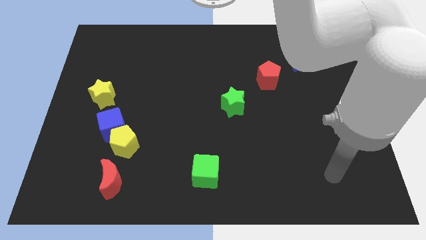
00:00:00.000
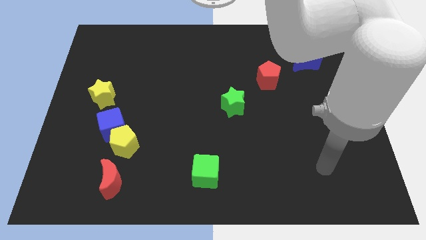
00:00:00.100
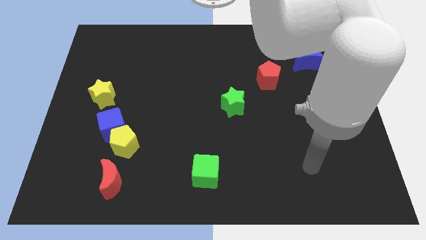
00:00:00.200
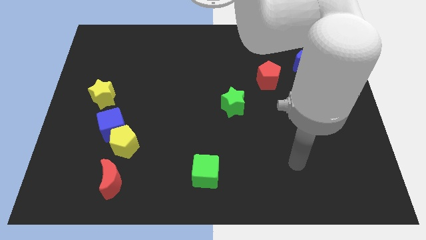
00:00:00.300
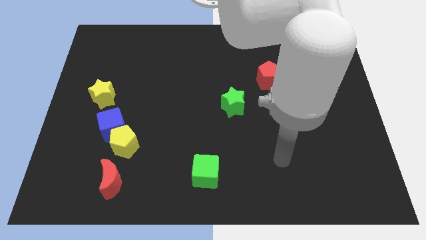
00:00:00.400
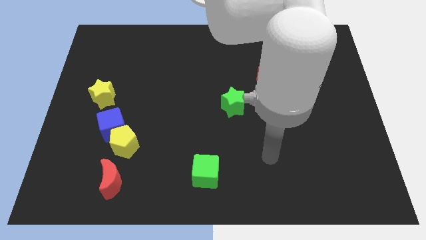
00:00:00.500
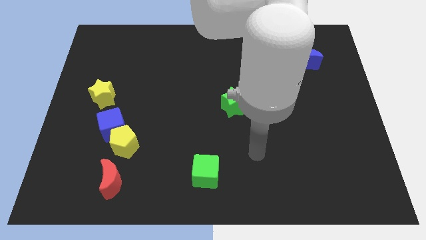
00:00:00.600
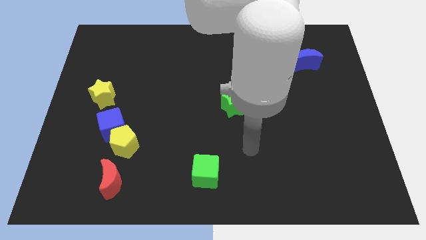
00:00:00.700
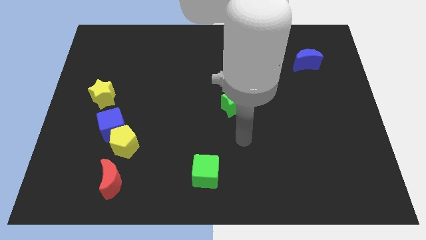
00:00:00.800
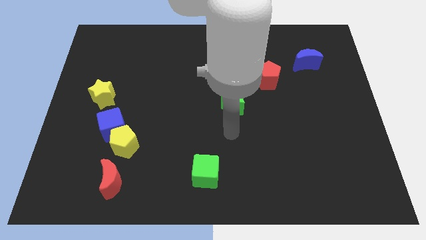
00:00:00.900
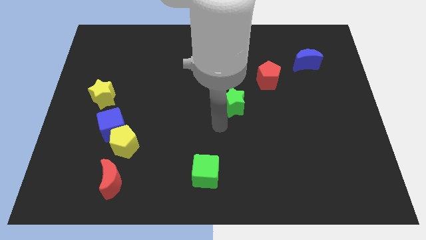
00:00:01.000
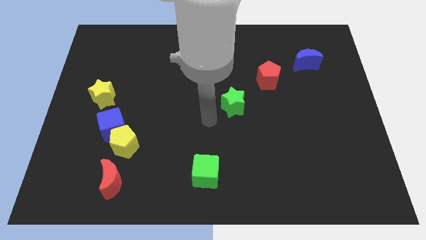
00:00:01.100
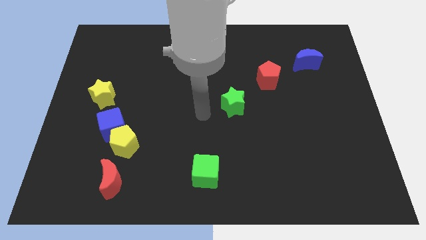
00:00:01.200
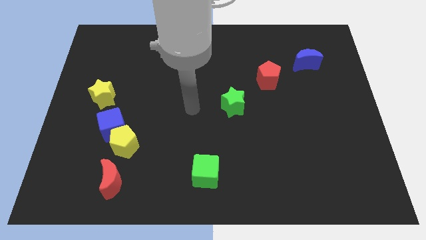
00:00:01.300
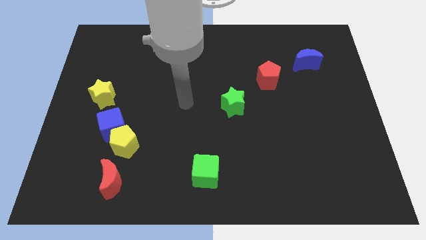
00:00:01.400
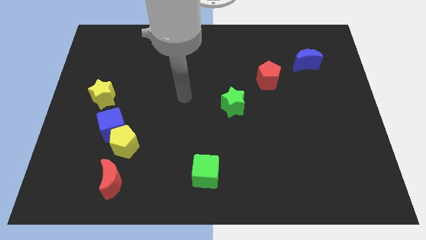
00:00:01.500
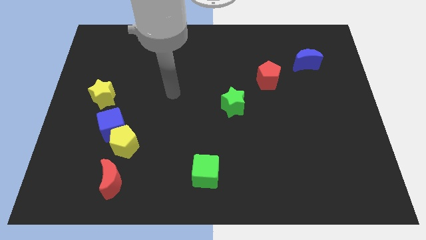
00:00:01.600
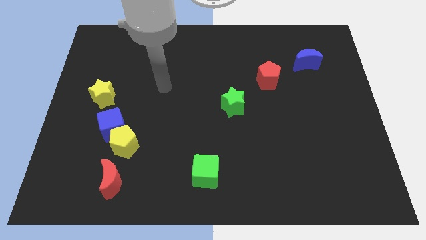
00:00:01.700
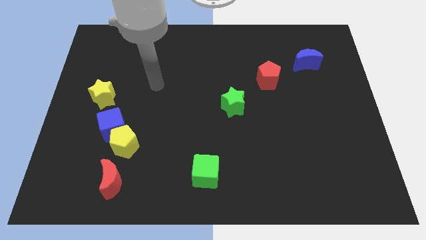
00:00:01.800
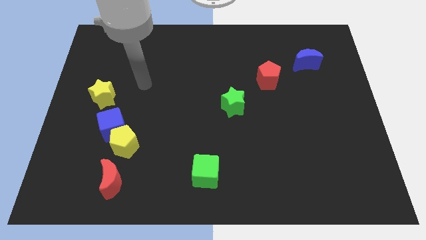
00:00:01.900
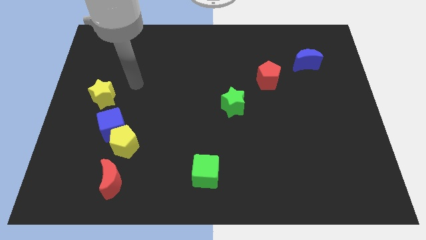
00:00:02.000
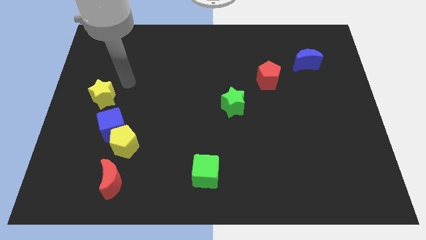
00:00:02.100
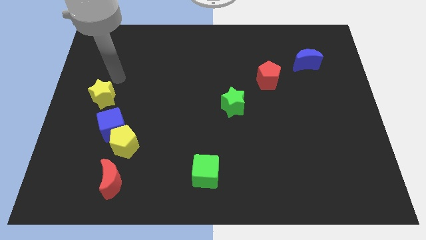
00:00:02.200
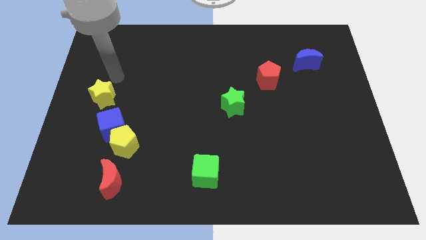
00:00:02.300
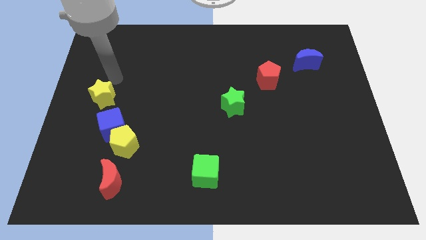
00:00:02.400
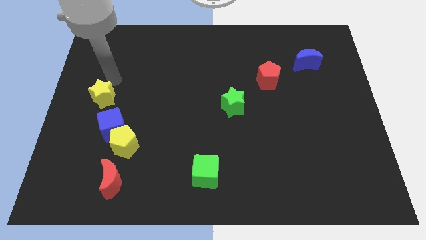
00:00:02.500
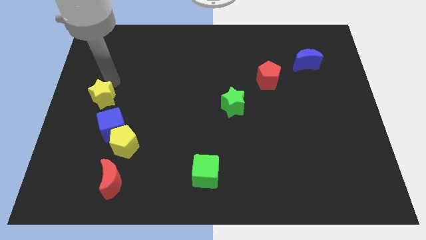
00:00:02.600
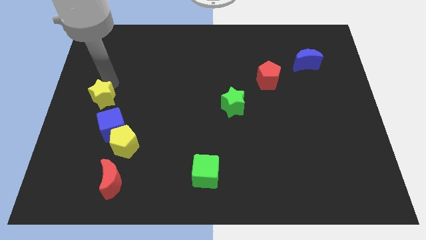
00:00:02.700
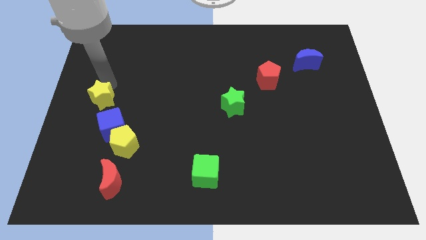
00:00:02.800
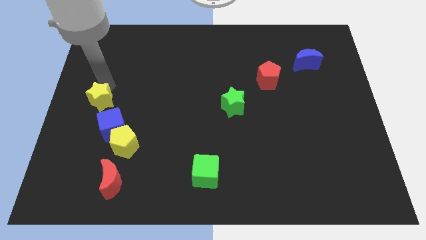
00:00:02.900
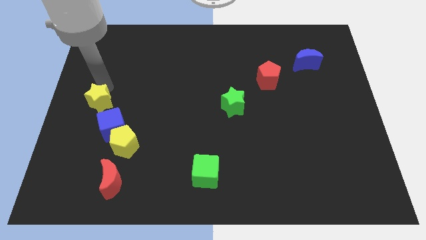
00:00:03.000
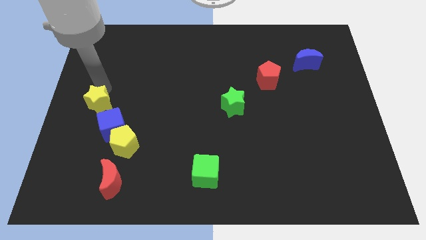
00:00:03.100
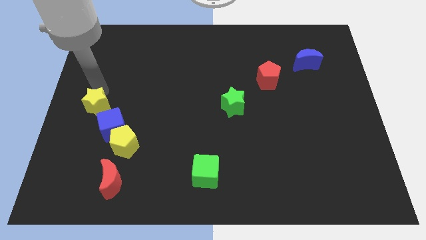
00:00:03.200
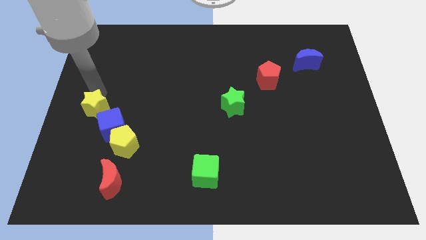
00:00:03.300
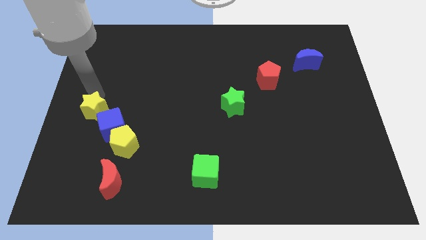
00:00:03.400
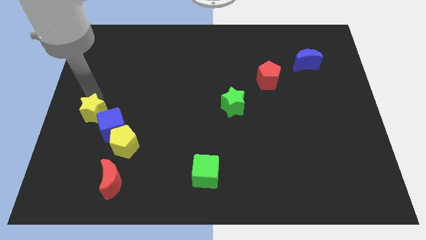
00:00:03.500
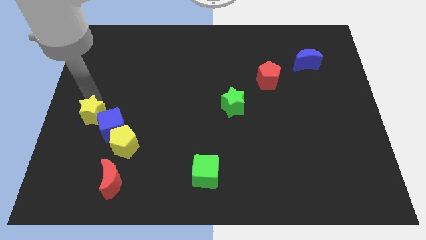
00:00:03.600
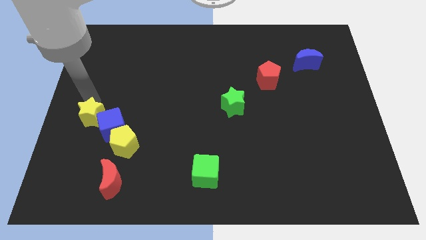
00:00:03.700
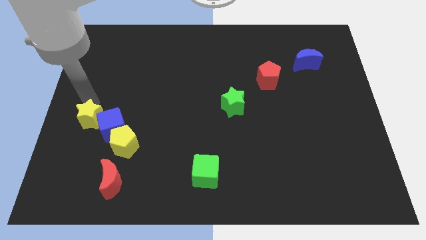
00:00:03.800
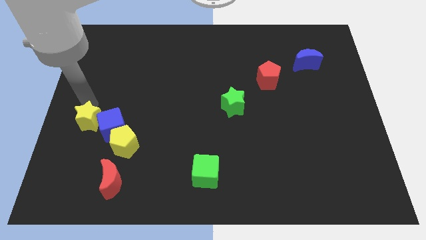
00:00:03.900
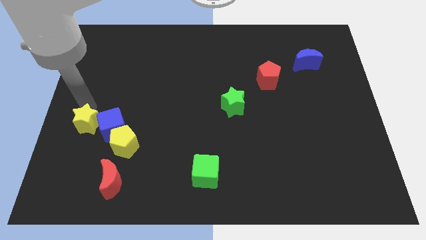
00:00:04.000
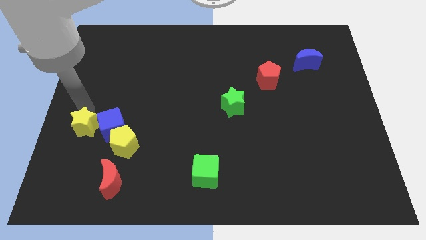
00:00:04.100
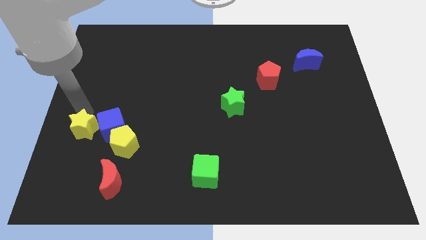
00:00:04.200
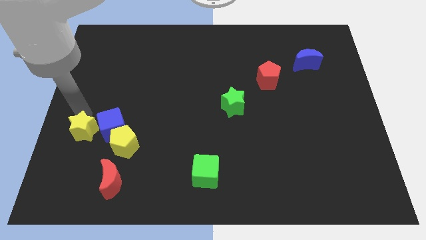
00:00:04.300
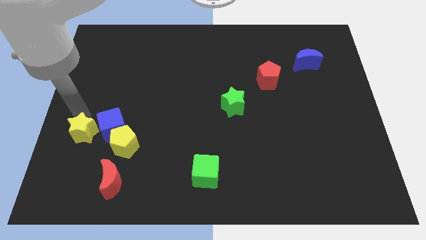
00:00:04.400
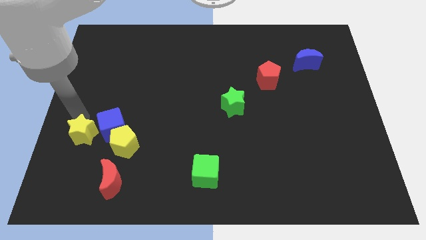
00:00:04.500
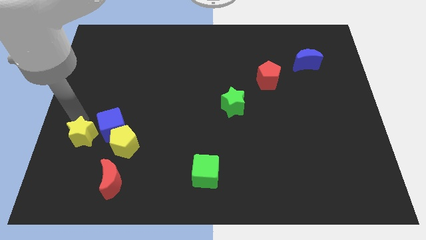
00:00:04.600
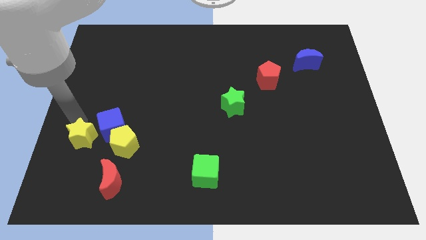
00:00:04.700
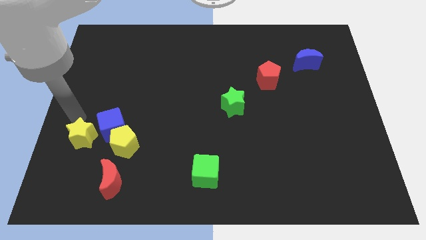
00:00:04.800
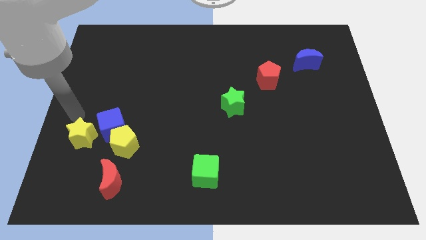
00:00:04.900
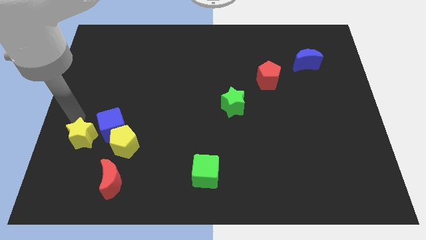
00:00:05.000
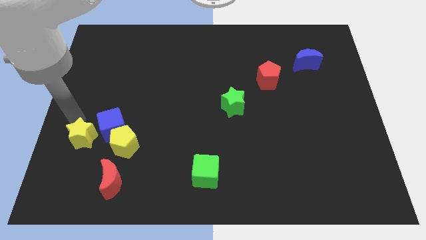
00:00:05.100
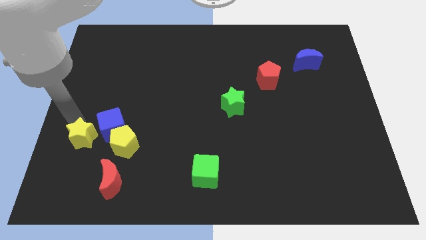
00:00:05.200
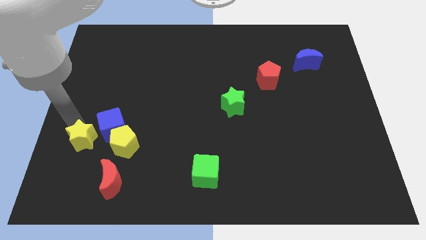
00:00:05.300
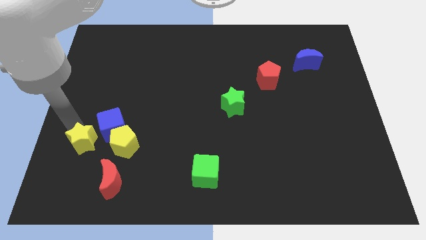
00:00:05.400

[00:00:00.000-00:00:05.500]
put the yellow star to the top left of the red moon
